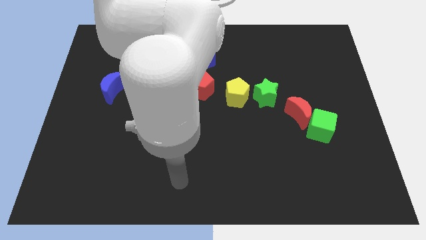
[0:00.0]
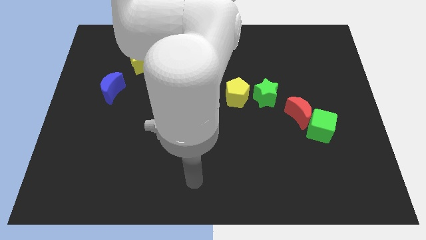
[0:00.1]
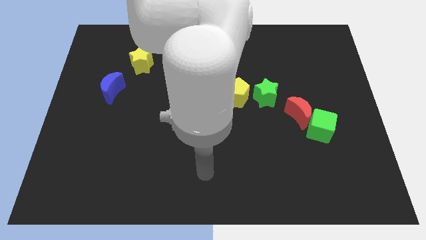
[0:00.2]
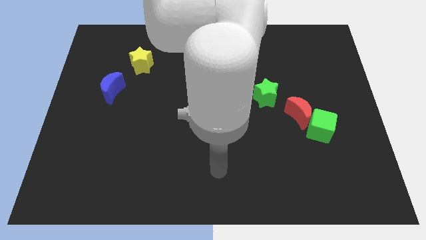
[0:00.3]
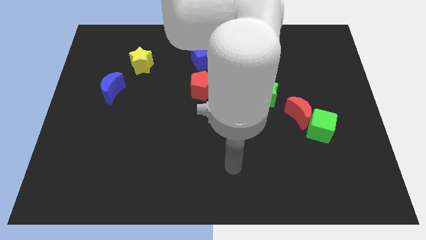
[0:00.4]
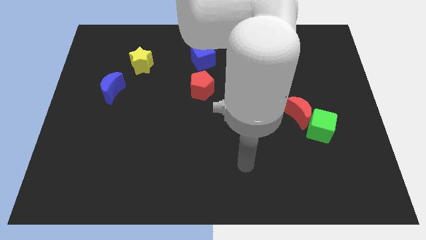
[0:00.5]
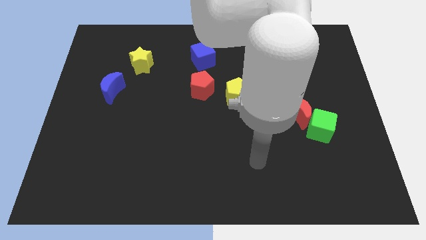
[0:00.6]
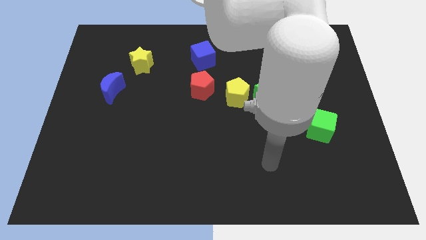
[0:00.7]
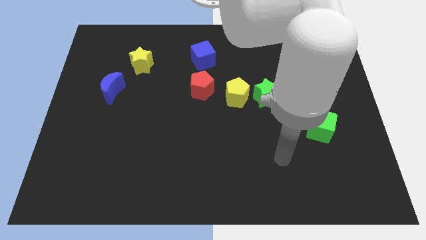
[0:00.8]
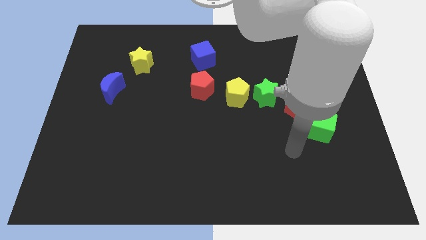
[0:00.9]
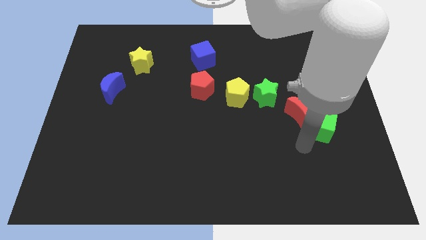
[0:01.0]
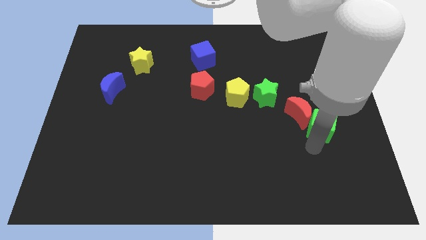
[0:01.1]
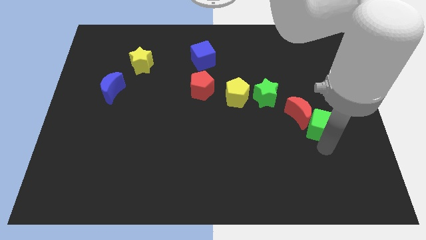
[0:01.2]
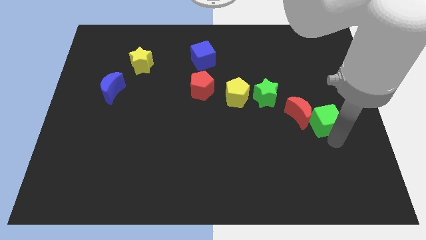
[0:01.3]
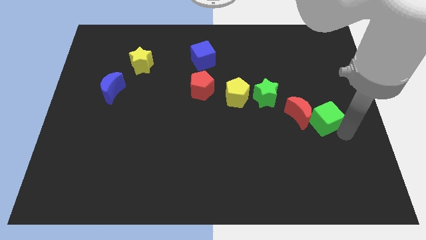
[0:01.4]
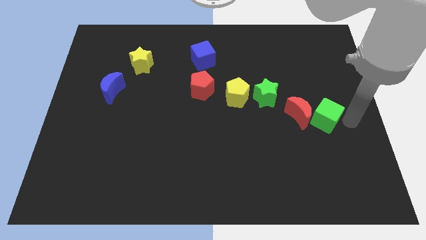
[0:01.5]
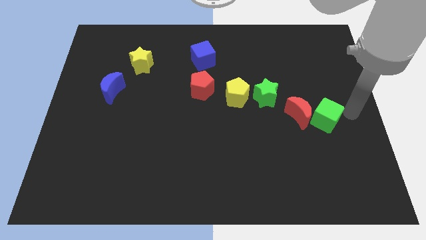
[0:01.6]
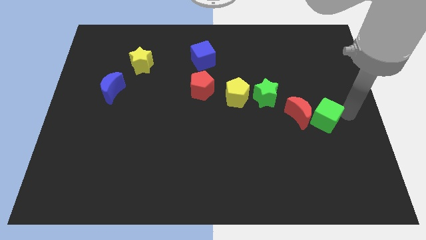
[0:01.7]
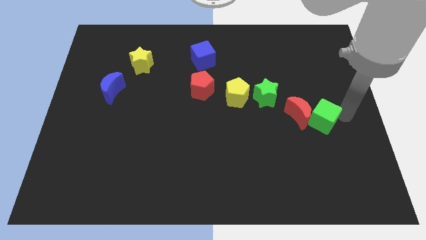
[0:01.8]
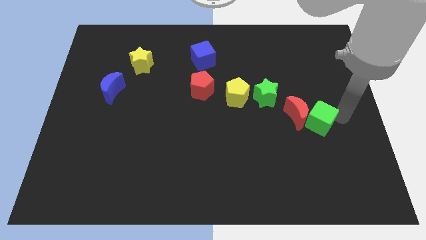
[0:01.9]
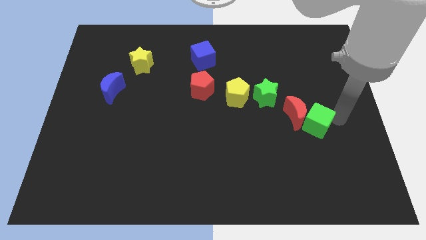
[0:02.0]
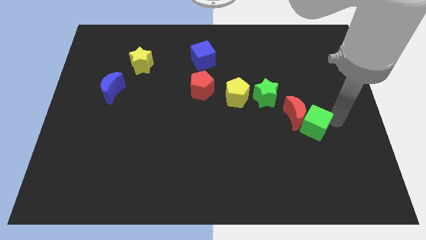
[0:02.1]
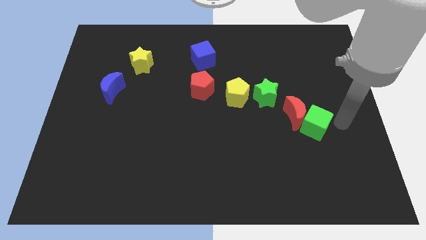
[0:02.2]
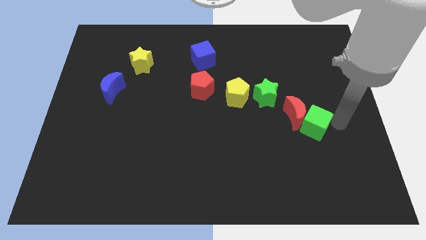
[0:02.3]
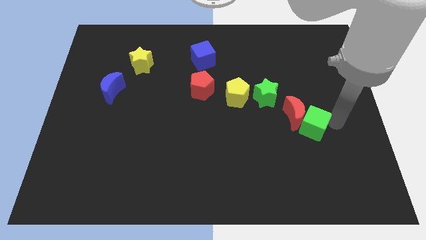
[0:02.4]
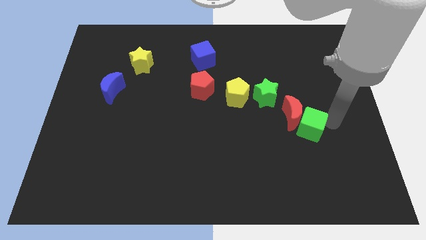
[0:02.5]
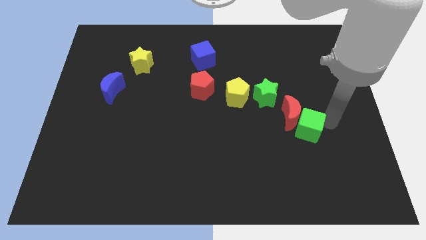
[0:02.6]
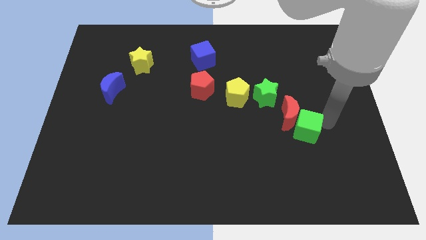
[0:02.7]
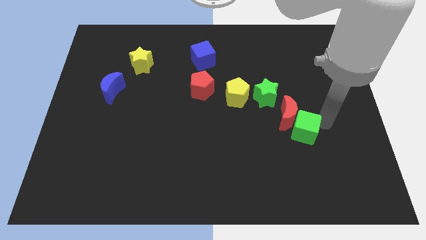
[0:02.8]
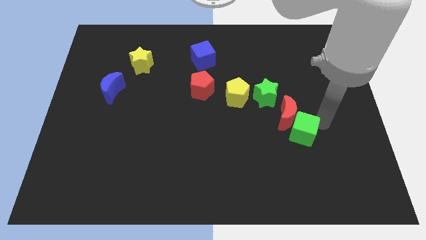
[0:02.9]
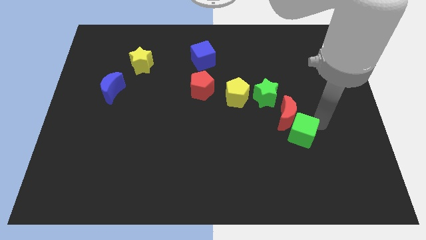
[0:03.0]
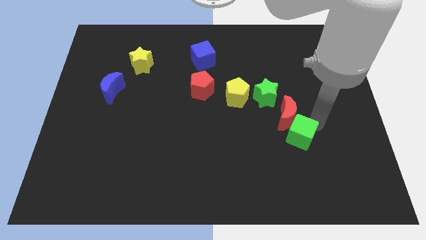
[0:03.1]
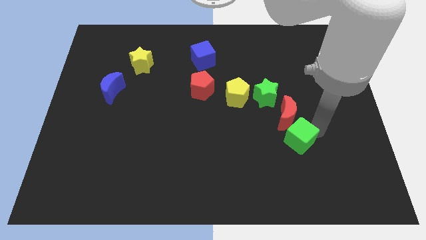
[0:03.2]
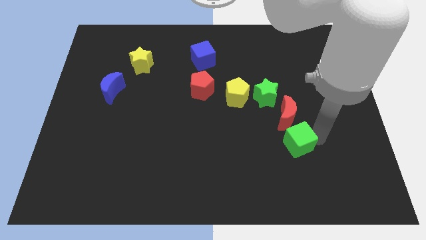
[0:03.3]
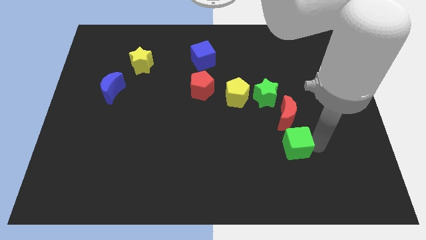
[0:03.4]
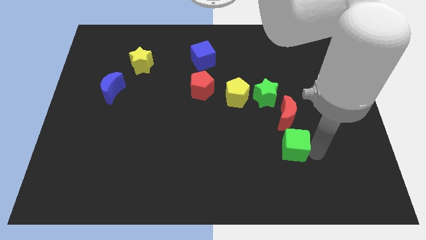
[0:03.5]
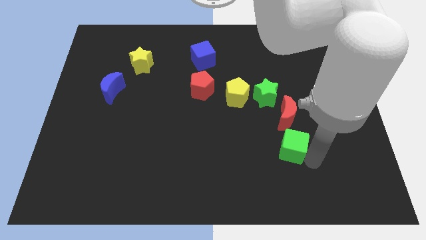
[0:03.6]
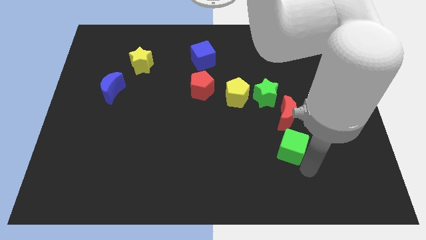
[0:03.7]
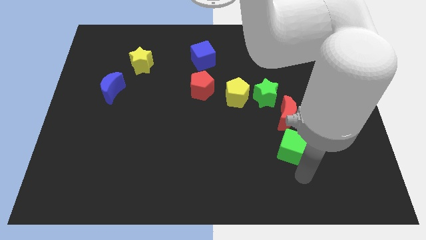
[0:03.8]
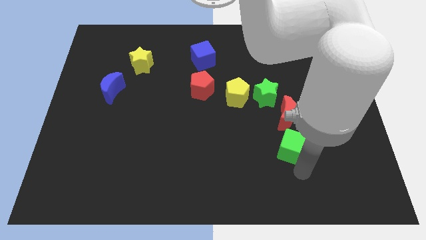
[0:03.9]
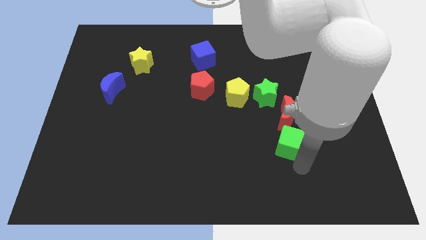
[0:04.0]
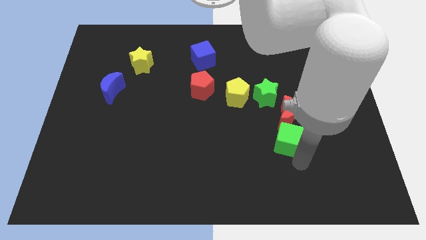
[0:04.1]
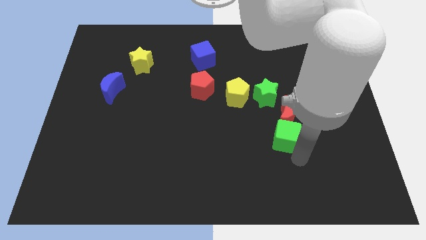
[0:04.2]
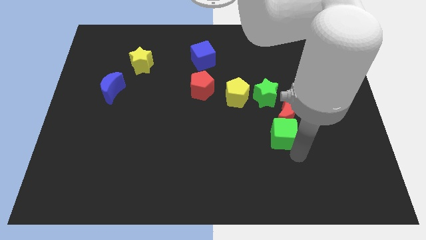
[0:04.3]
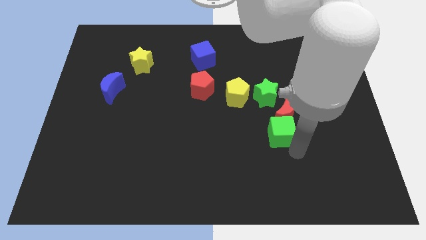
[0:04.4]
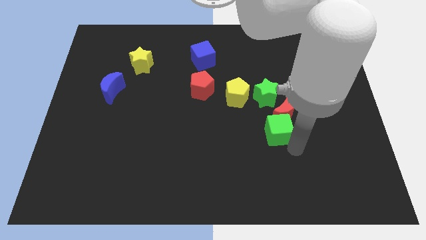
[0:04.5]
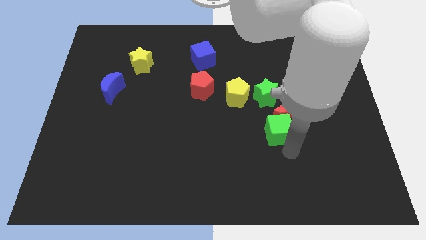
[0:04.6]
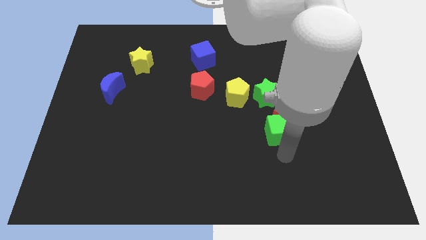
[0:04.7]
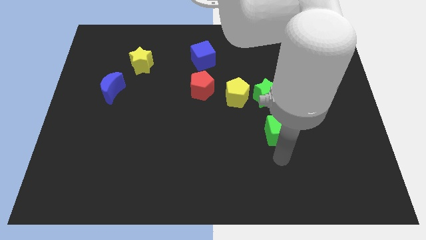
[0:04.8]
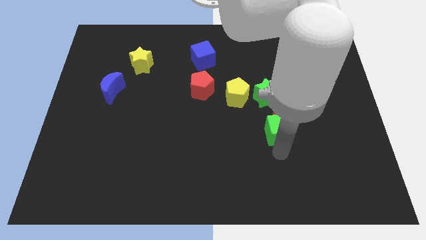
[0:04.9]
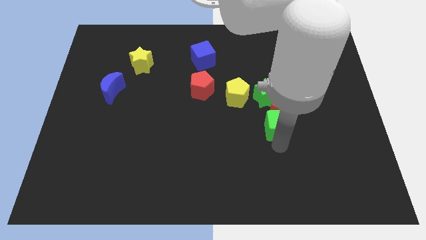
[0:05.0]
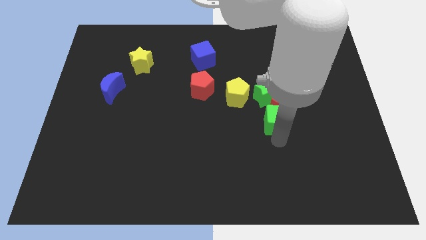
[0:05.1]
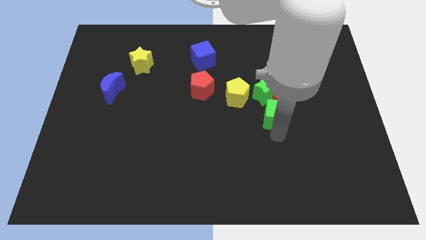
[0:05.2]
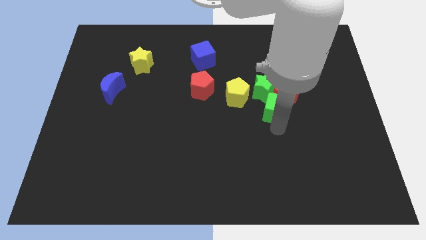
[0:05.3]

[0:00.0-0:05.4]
put the green cube close to the green star
